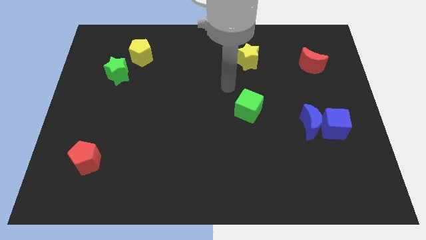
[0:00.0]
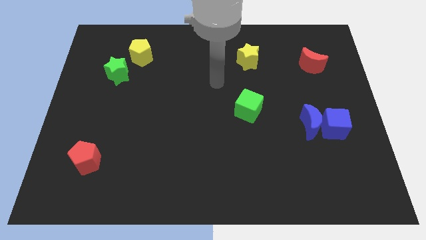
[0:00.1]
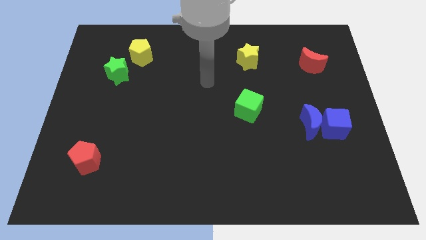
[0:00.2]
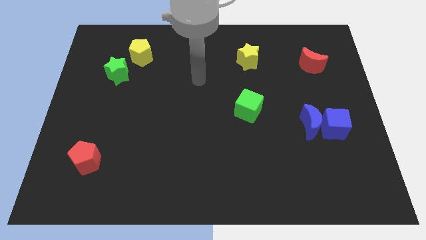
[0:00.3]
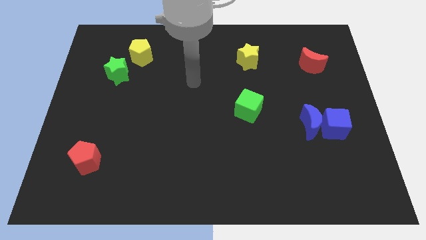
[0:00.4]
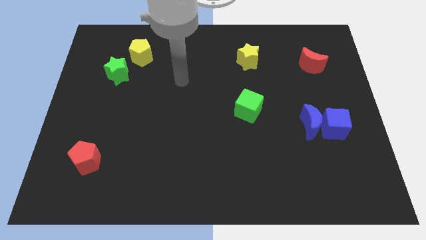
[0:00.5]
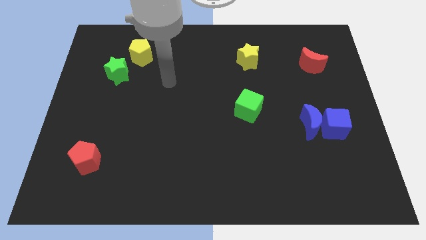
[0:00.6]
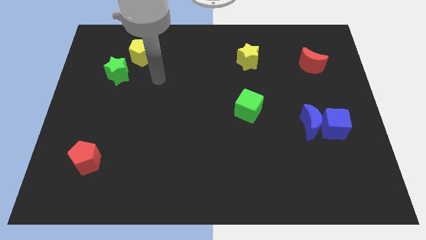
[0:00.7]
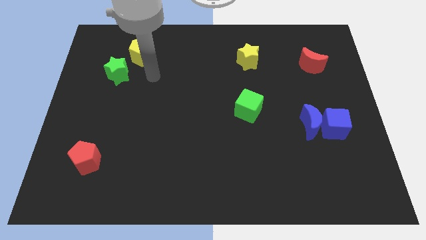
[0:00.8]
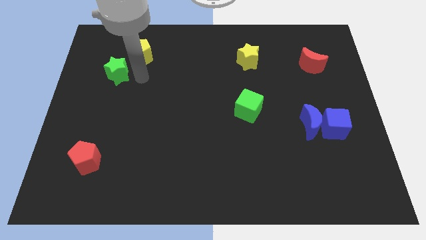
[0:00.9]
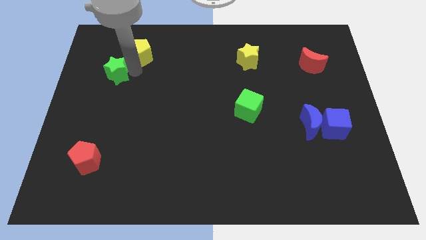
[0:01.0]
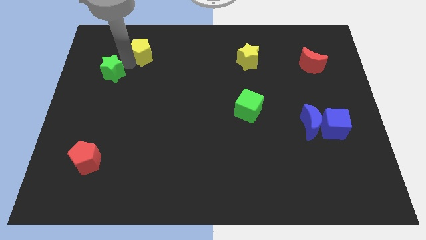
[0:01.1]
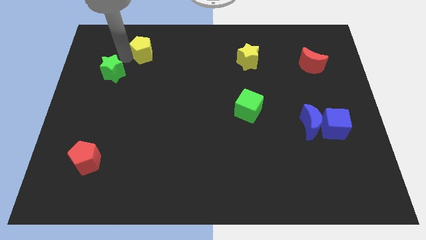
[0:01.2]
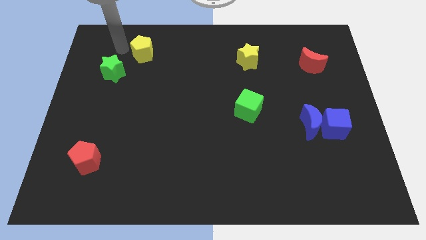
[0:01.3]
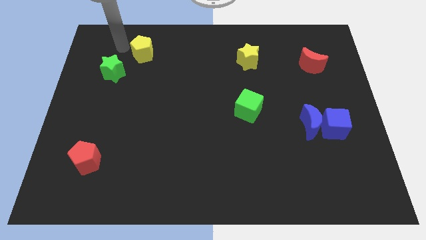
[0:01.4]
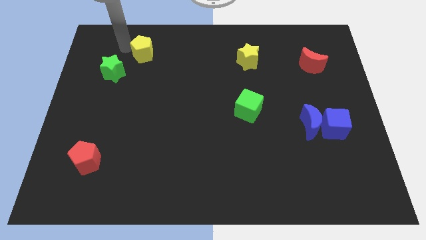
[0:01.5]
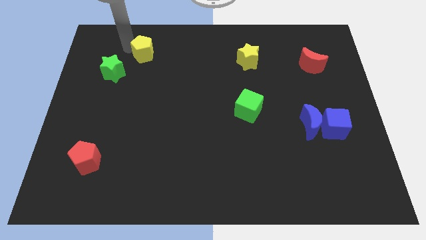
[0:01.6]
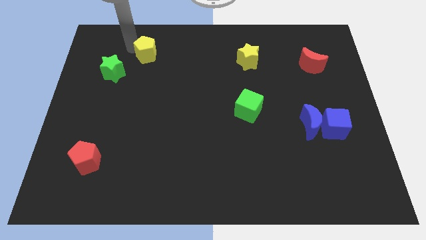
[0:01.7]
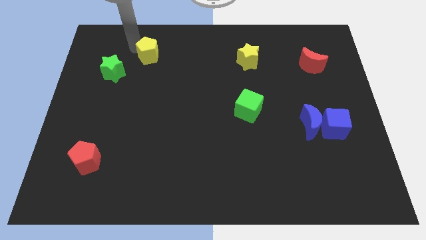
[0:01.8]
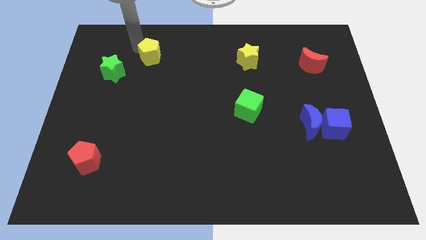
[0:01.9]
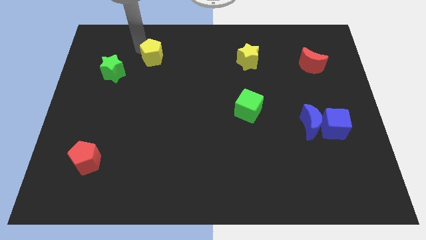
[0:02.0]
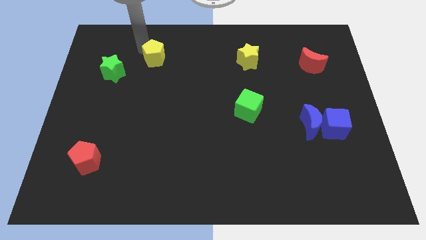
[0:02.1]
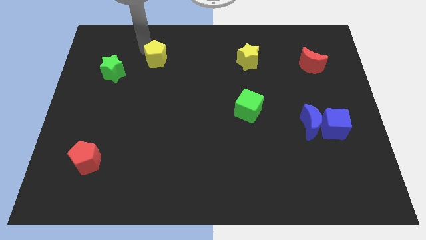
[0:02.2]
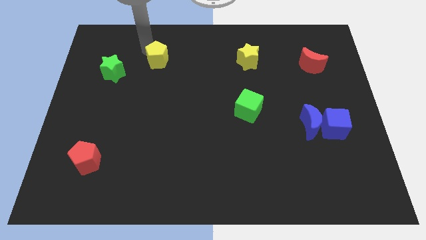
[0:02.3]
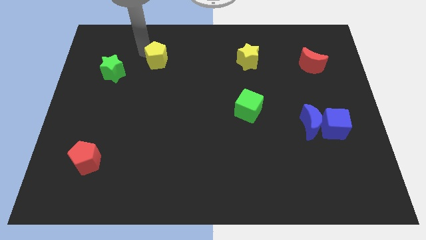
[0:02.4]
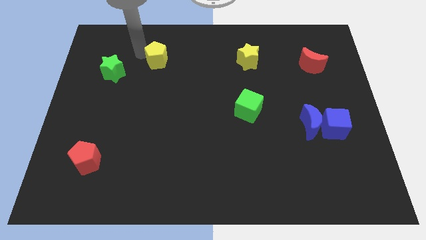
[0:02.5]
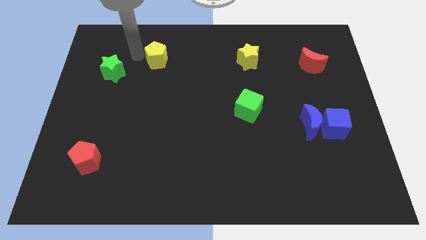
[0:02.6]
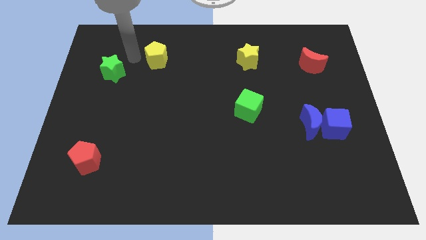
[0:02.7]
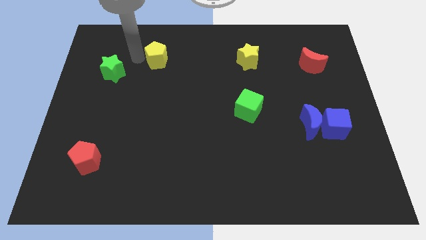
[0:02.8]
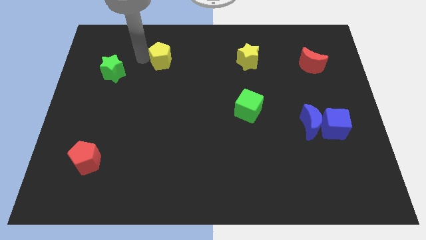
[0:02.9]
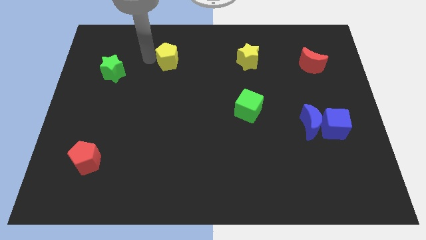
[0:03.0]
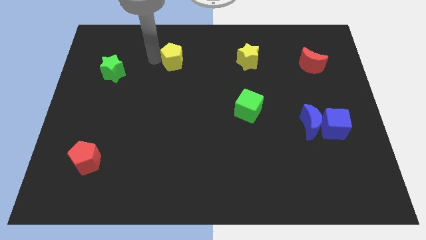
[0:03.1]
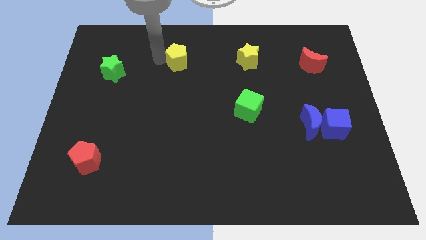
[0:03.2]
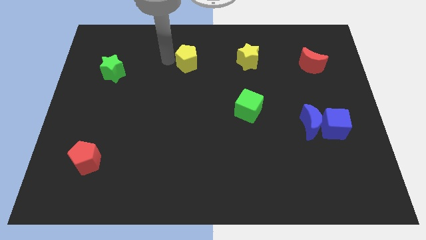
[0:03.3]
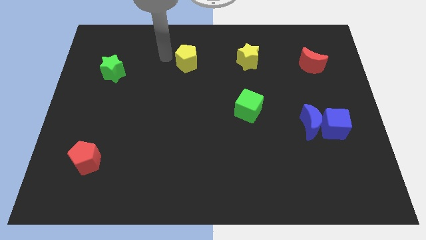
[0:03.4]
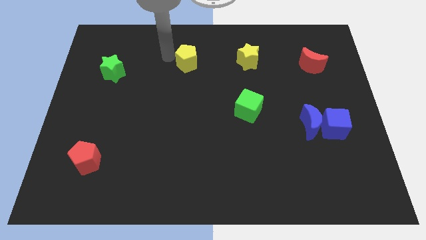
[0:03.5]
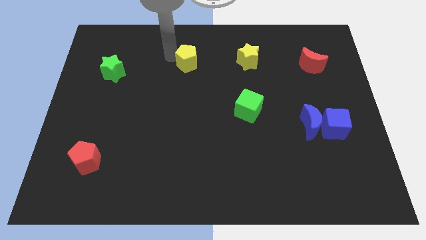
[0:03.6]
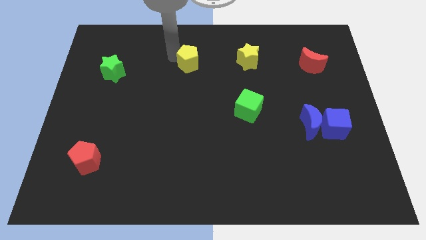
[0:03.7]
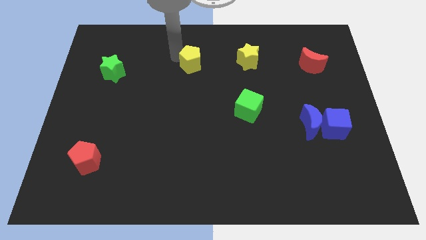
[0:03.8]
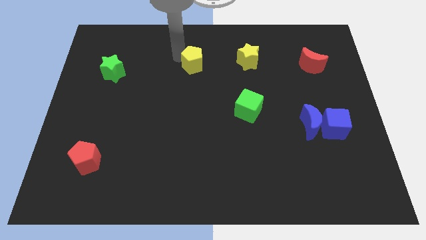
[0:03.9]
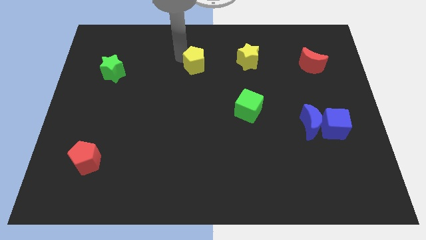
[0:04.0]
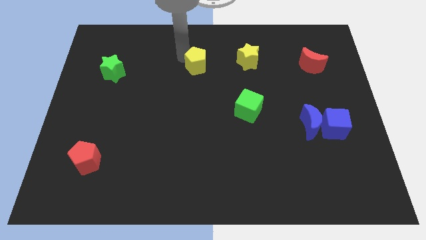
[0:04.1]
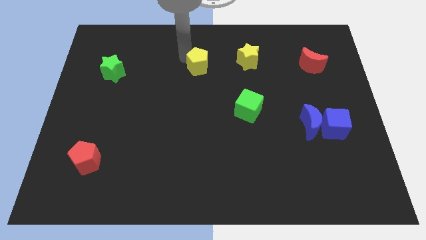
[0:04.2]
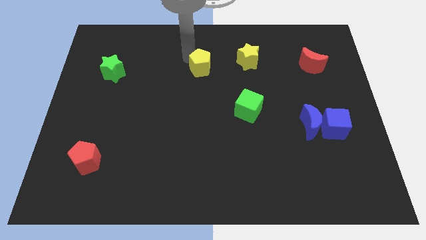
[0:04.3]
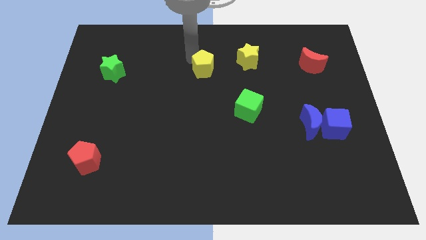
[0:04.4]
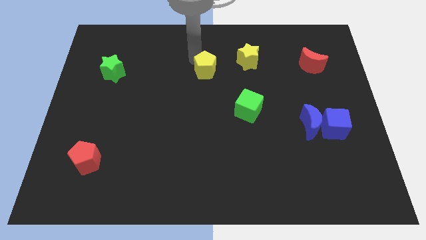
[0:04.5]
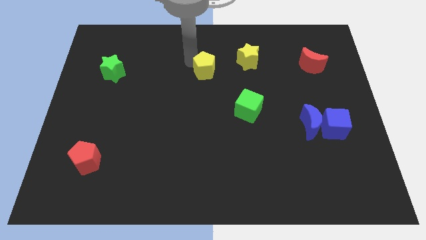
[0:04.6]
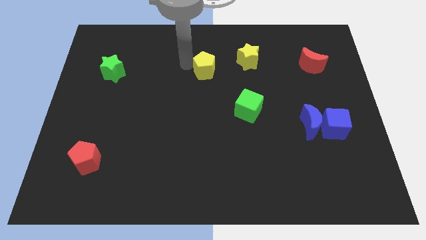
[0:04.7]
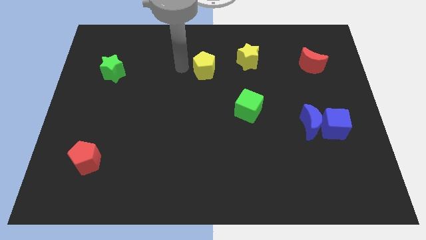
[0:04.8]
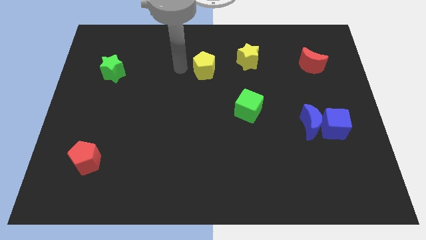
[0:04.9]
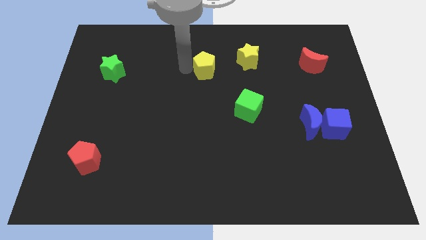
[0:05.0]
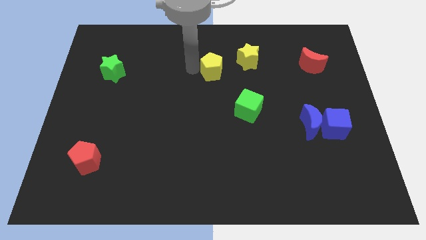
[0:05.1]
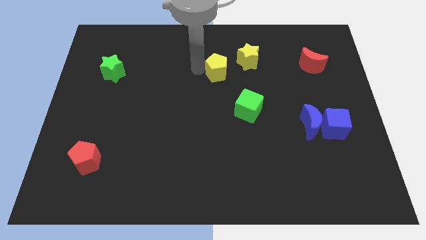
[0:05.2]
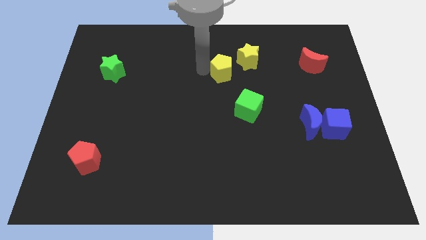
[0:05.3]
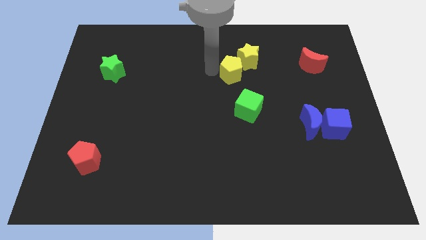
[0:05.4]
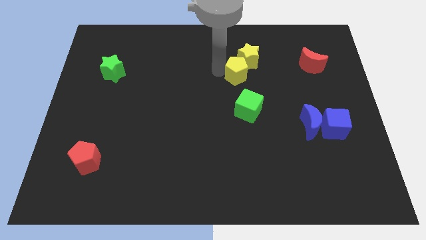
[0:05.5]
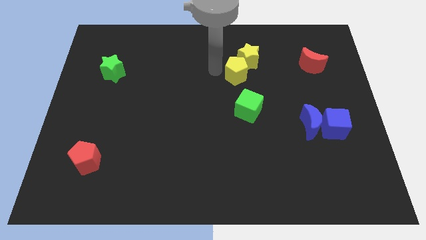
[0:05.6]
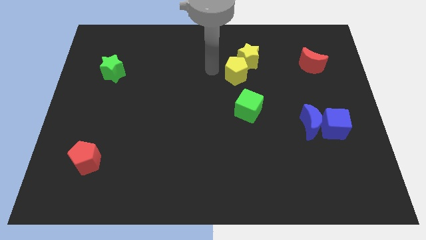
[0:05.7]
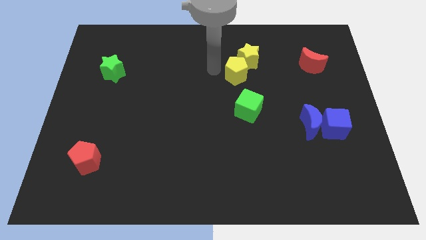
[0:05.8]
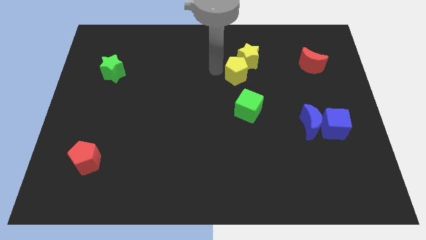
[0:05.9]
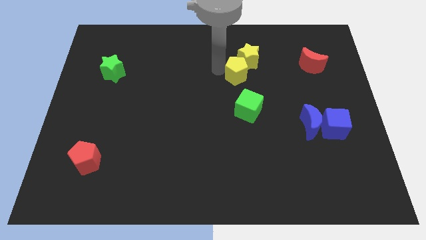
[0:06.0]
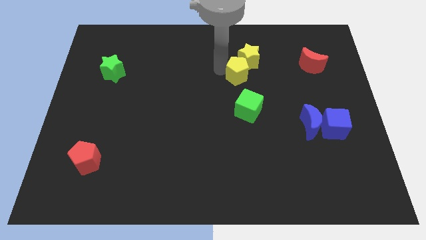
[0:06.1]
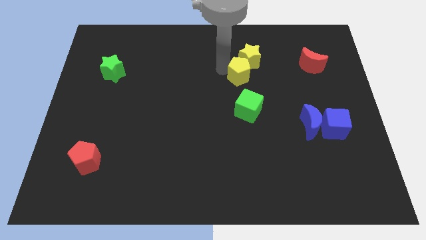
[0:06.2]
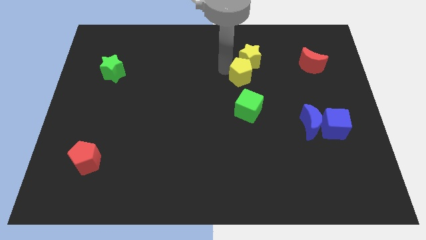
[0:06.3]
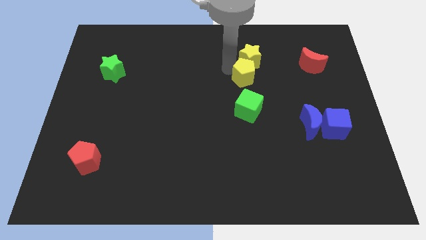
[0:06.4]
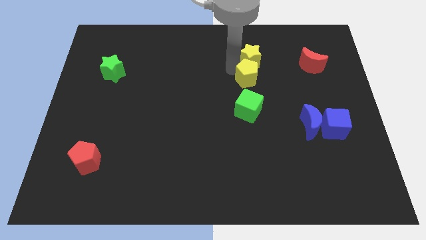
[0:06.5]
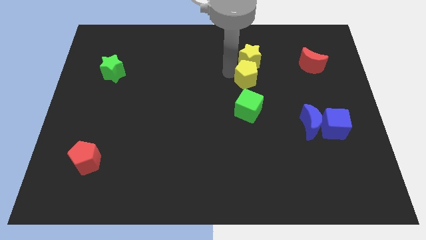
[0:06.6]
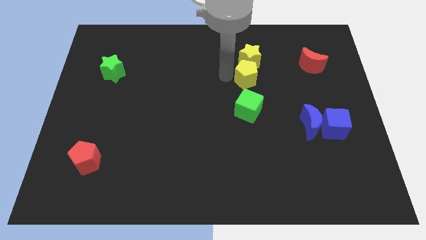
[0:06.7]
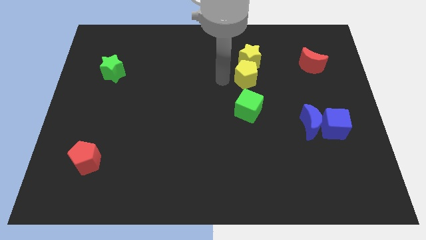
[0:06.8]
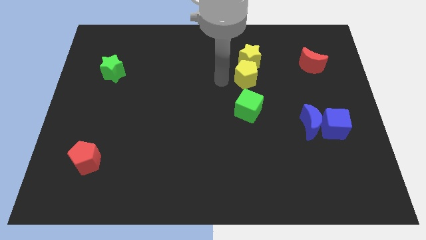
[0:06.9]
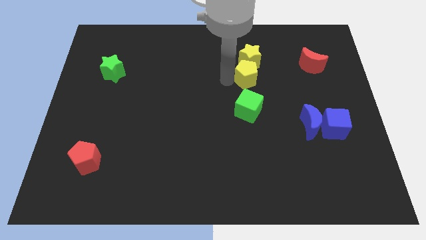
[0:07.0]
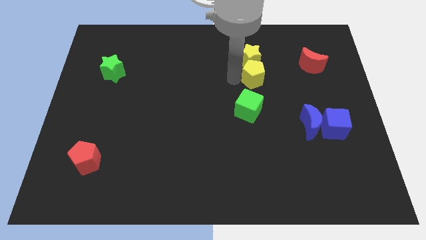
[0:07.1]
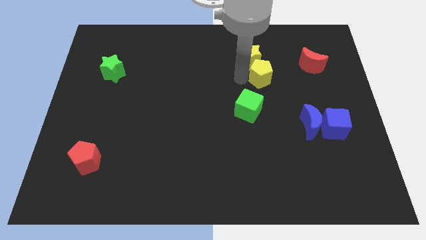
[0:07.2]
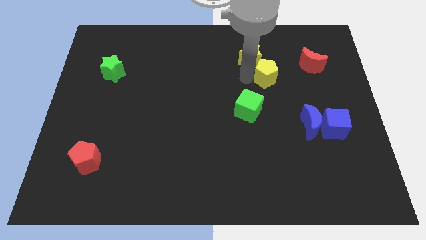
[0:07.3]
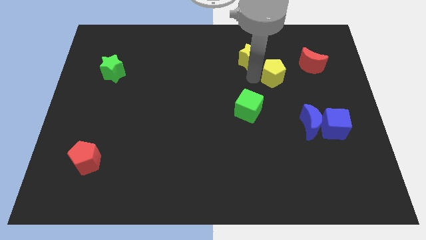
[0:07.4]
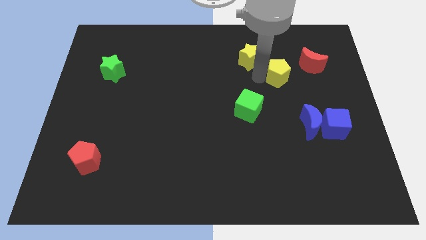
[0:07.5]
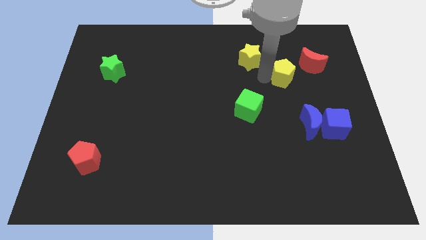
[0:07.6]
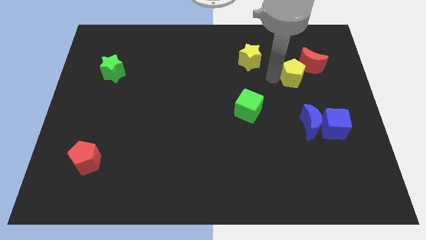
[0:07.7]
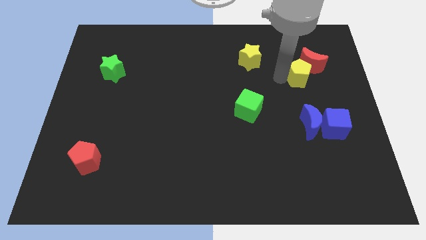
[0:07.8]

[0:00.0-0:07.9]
push the yellow pentagon close to the red moon
